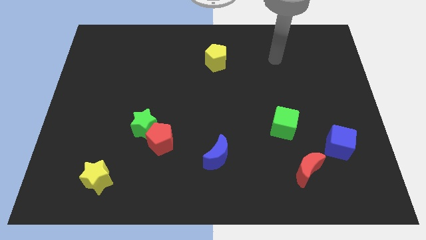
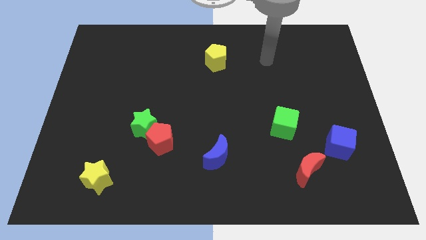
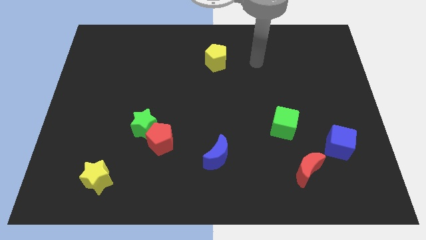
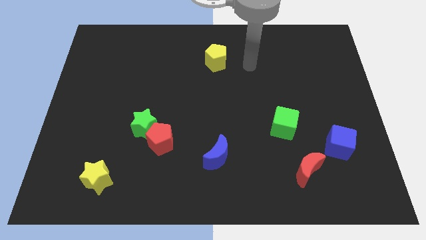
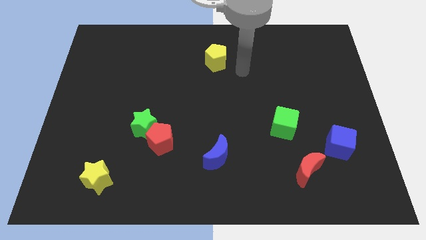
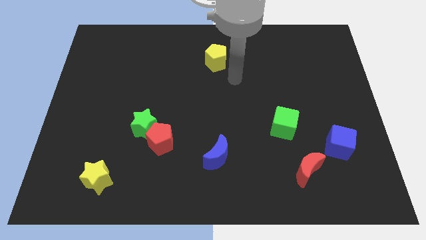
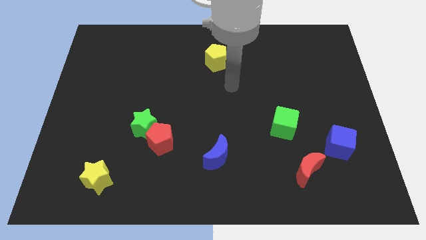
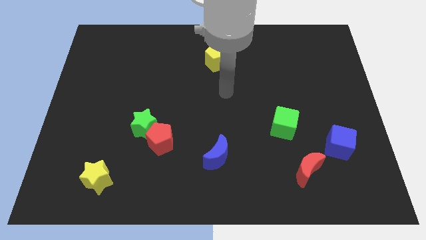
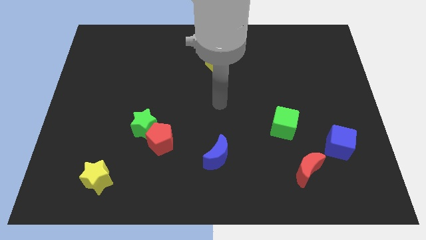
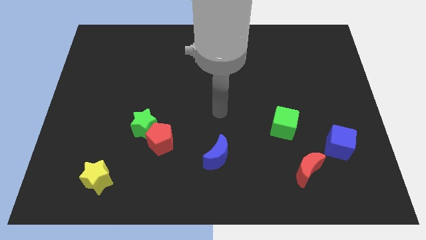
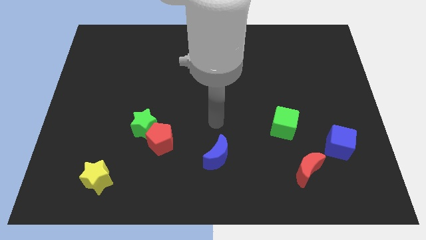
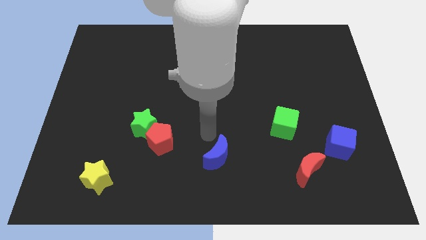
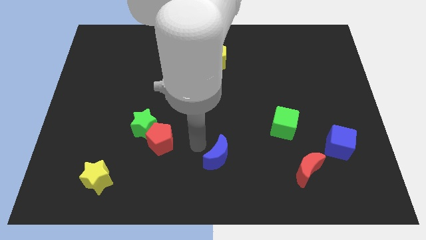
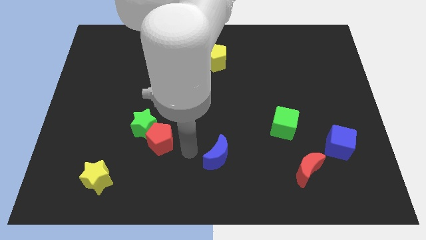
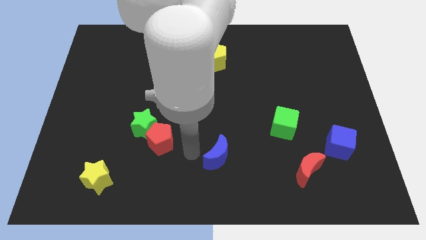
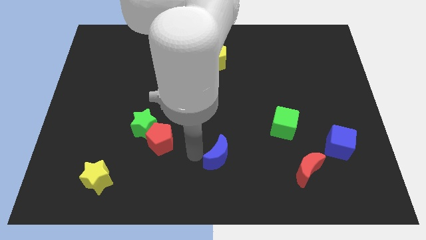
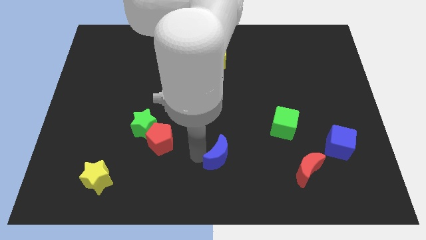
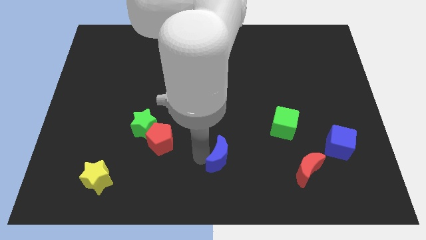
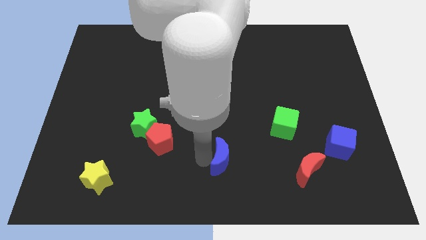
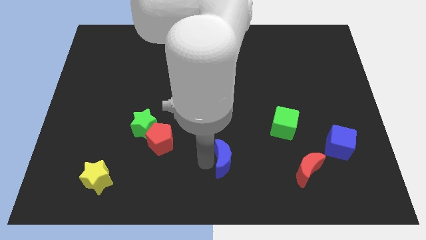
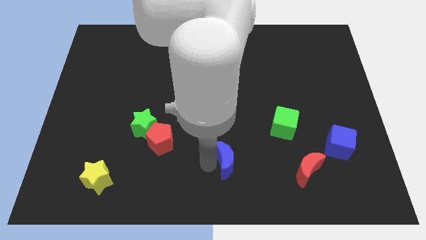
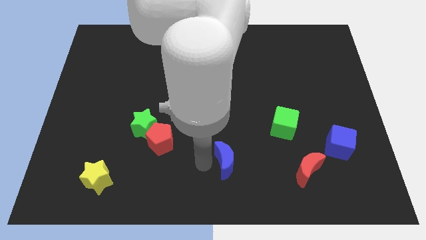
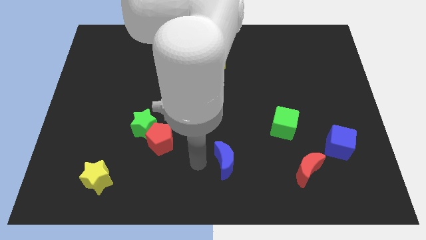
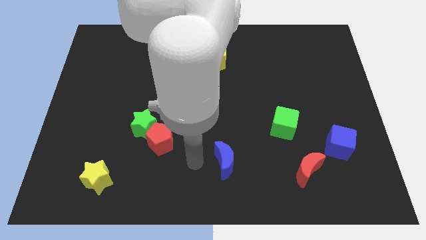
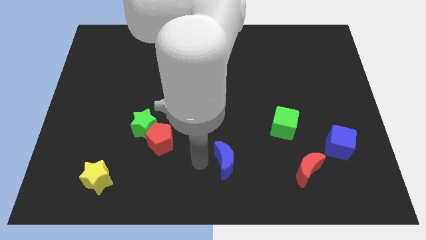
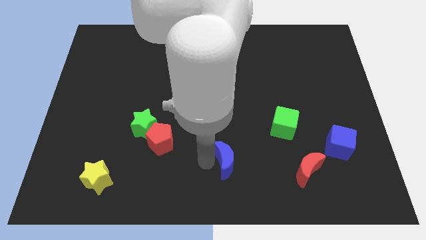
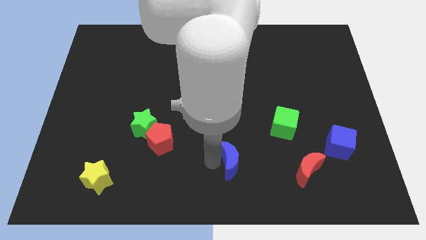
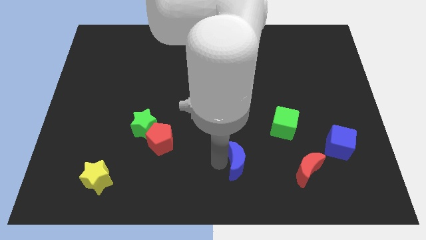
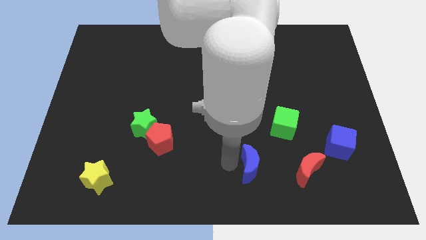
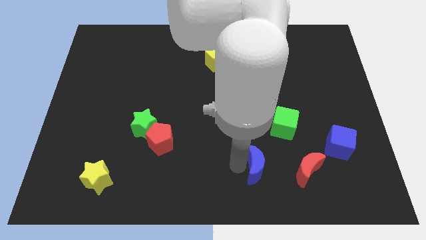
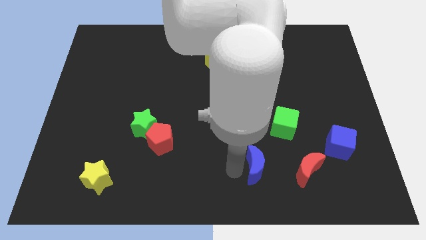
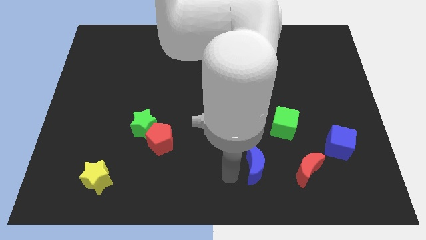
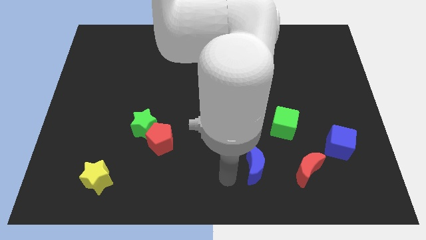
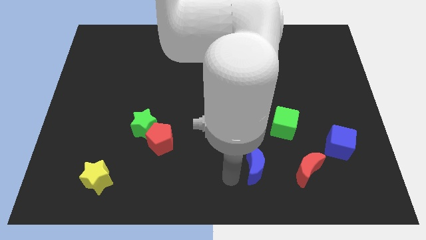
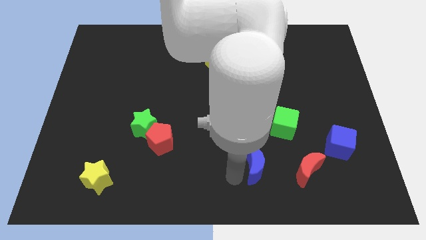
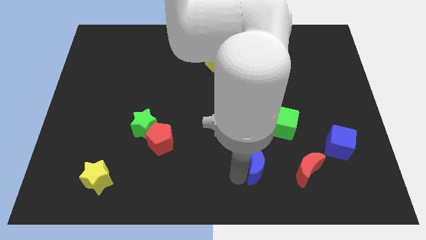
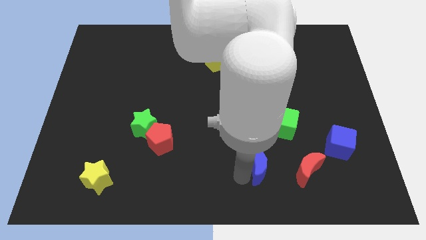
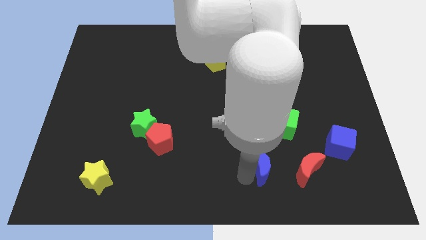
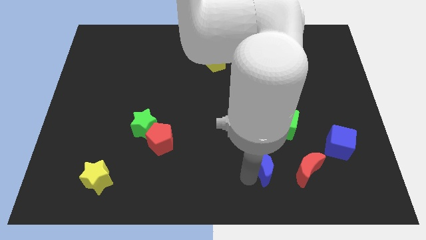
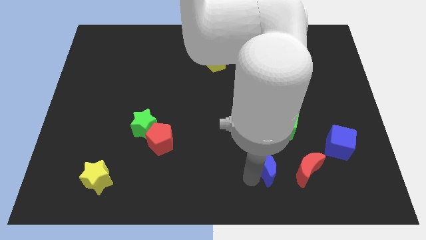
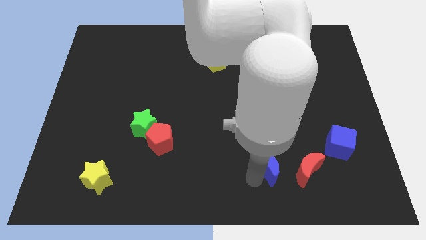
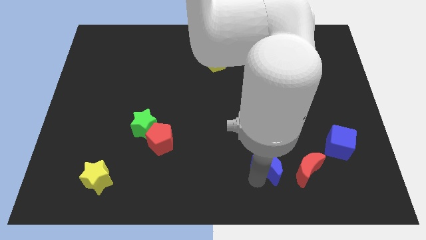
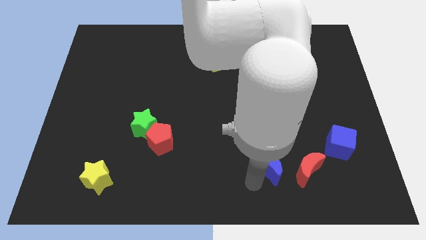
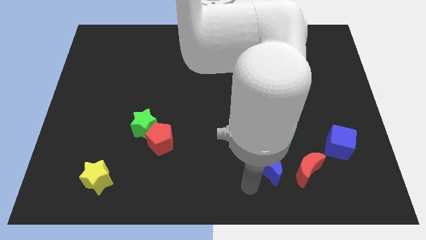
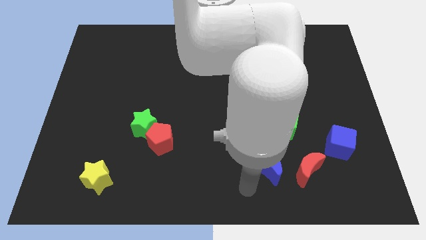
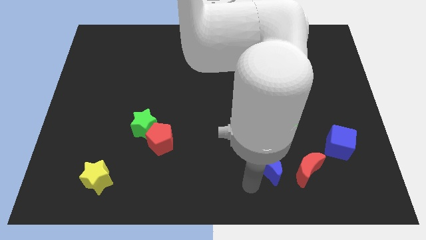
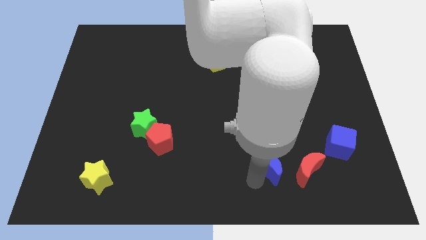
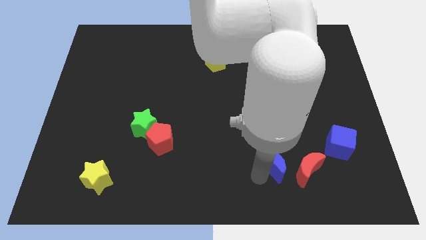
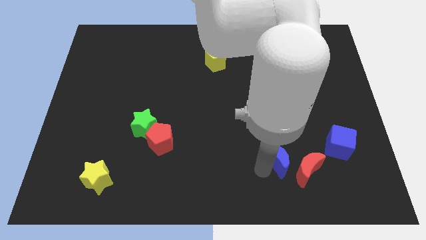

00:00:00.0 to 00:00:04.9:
push the blue moon close to the red moon

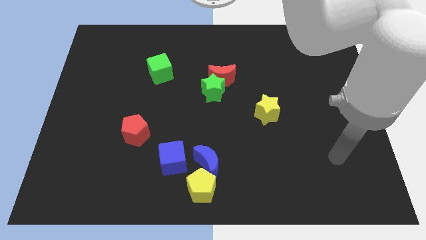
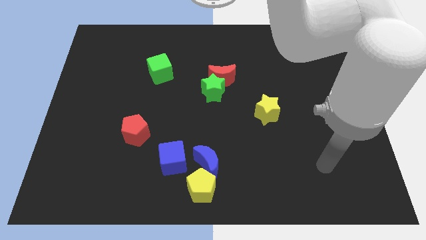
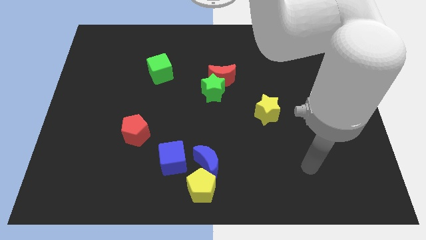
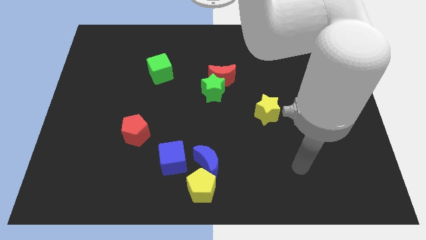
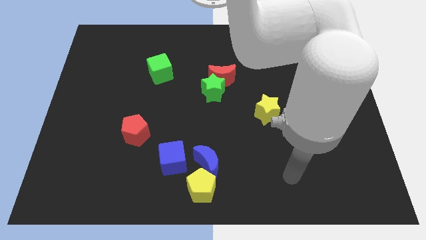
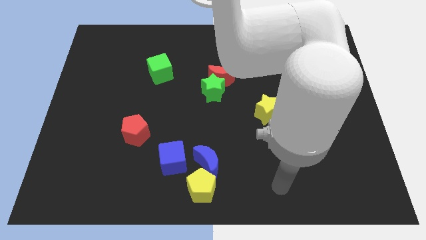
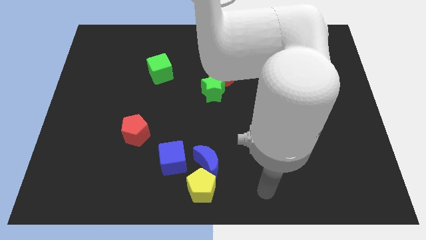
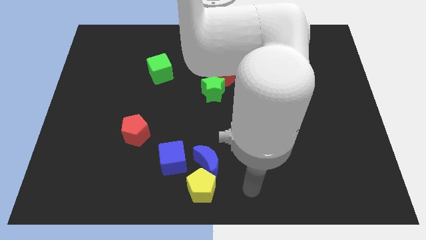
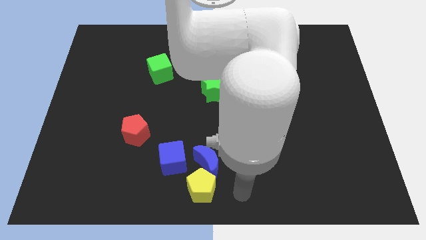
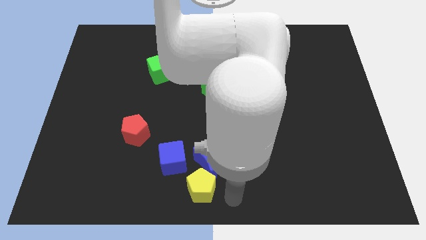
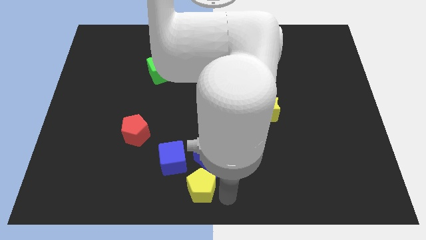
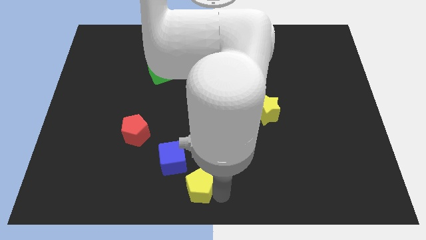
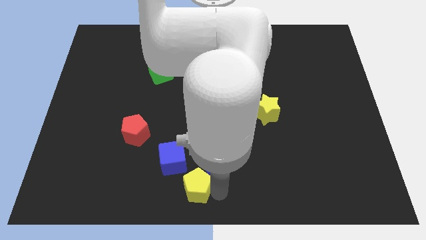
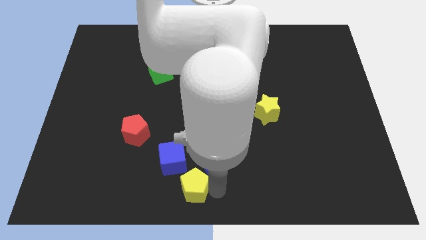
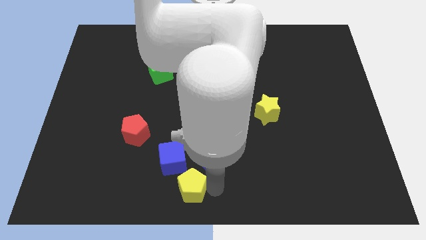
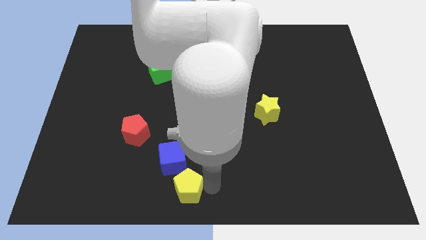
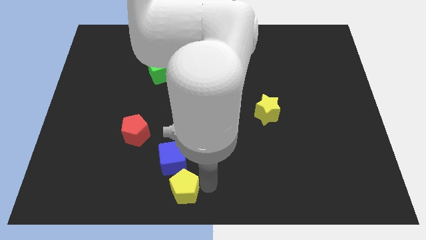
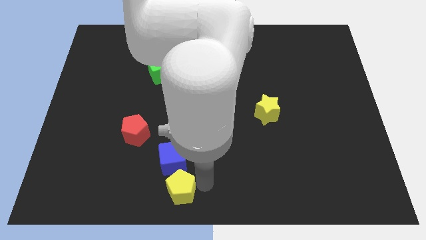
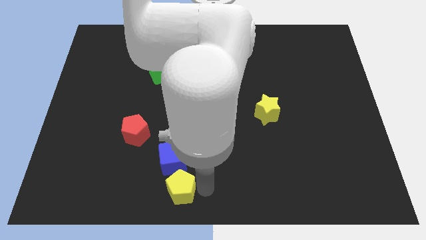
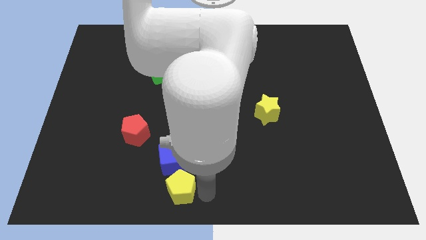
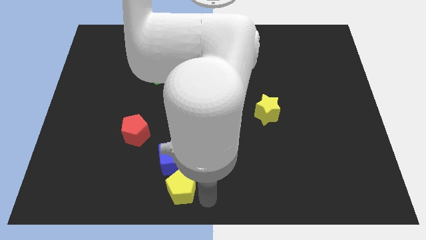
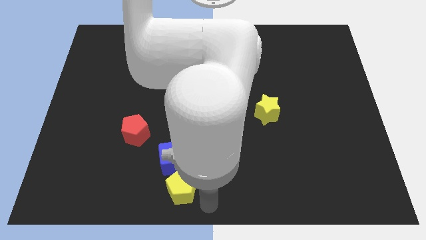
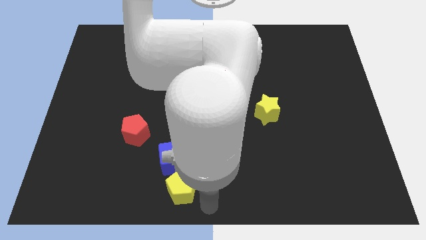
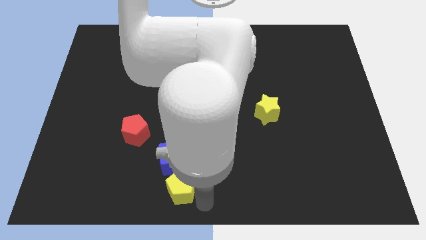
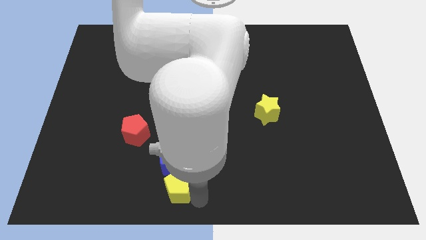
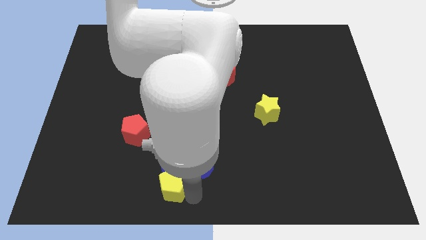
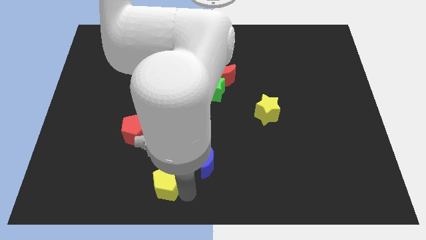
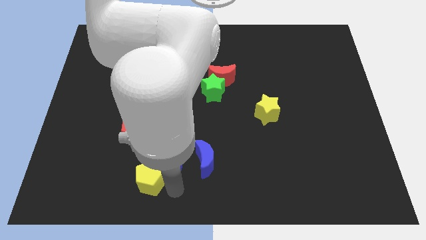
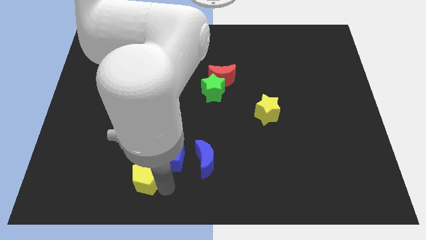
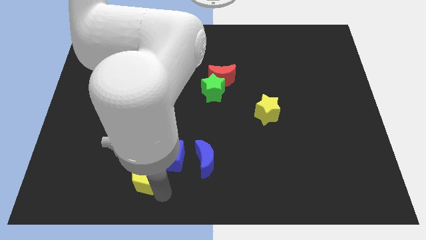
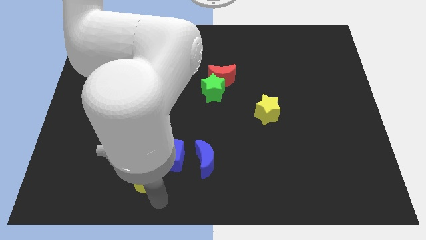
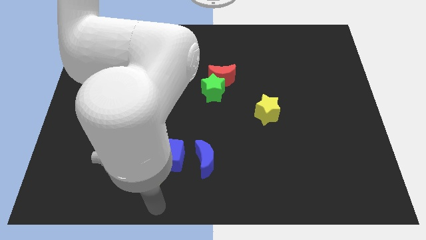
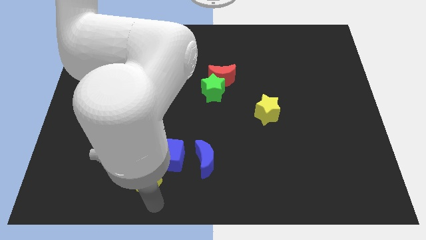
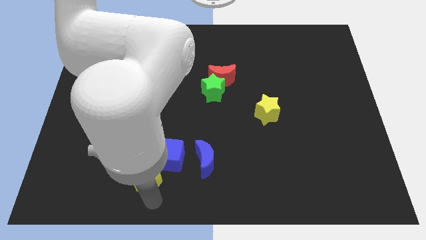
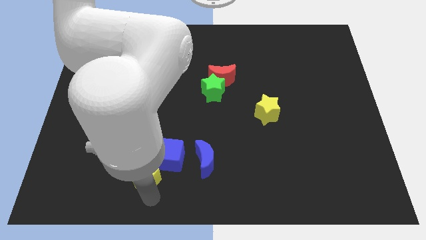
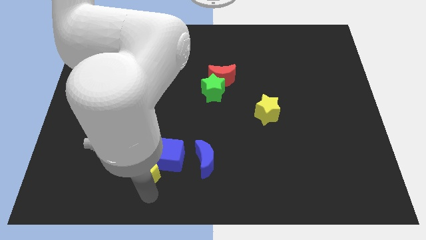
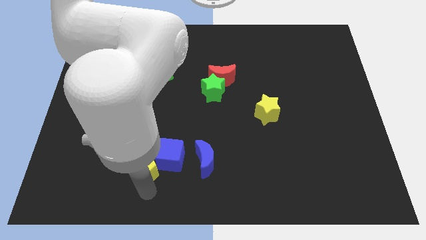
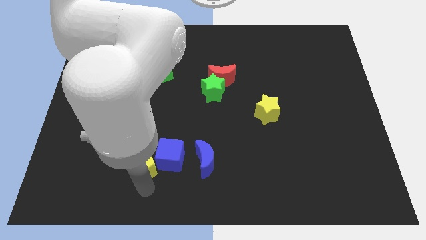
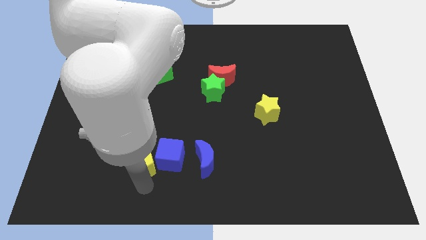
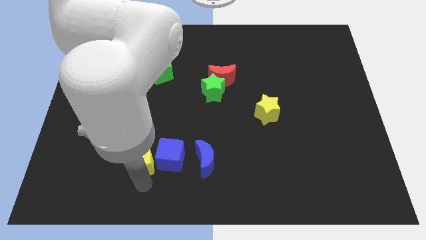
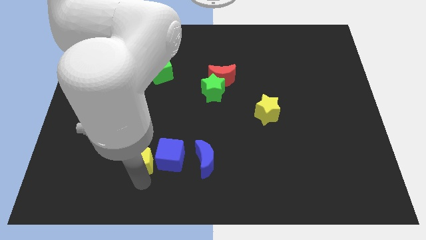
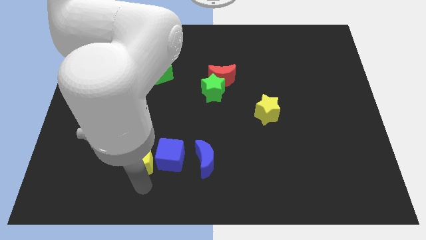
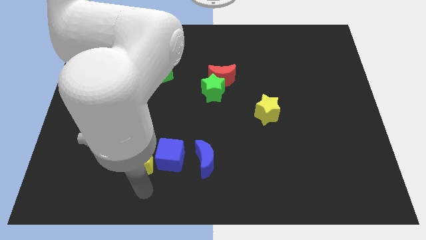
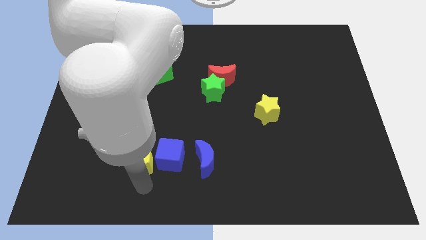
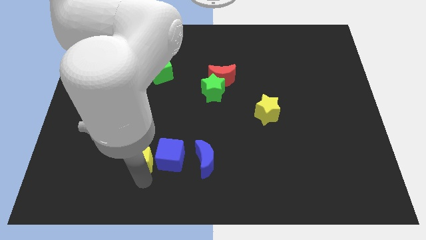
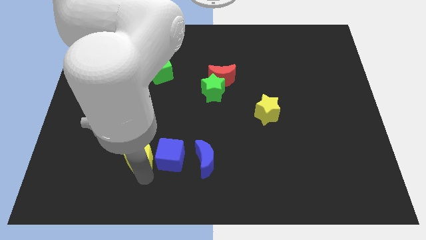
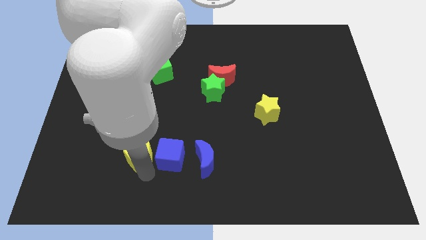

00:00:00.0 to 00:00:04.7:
move the yellow pentagon to the red pentagon
